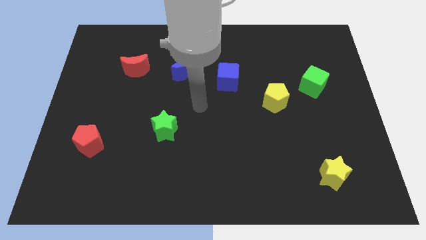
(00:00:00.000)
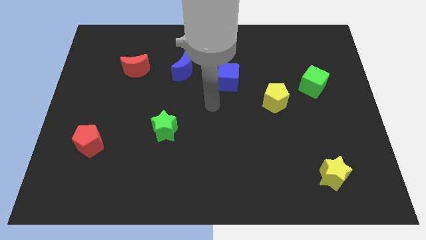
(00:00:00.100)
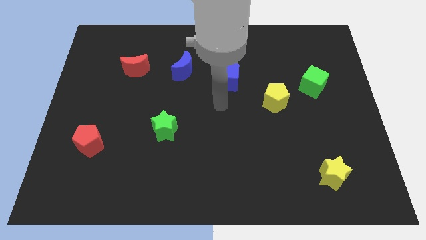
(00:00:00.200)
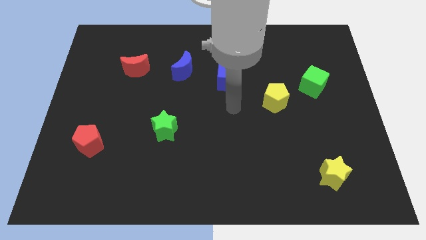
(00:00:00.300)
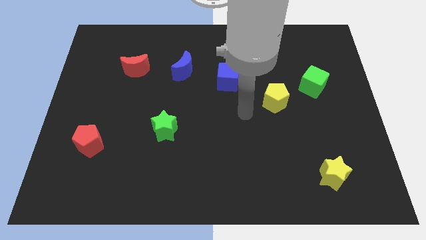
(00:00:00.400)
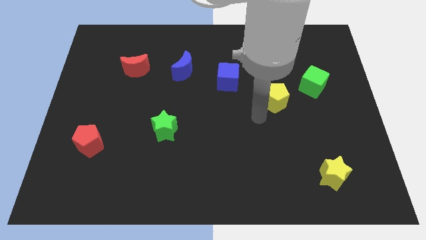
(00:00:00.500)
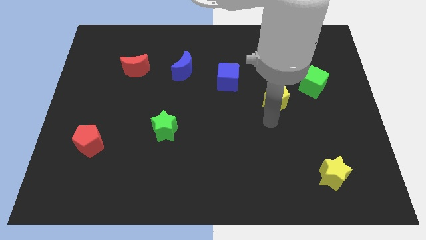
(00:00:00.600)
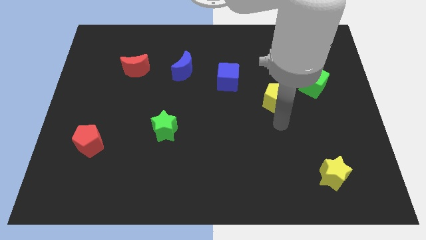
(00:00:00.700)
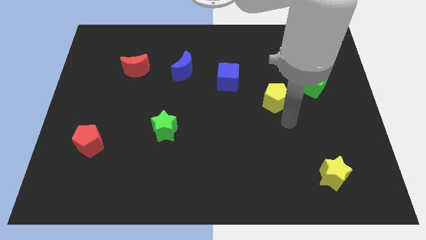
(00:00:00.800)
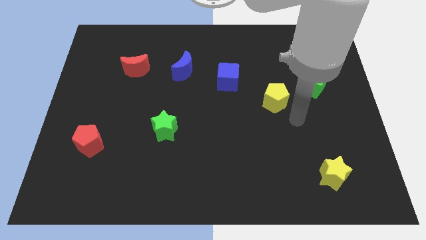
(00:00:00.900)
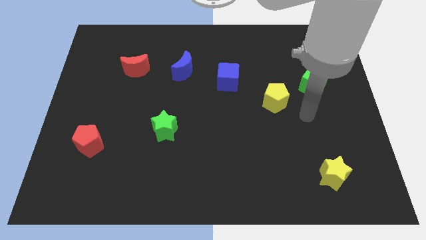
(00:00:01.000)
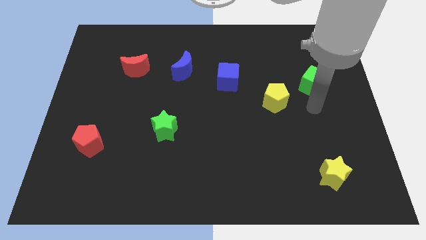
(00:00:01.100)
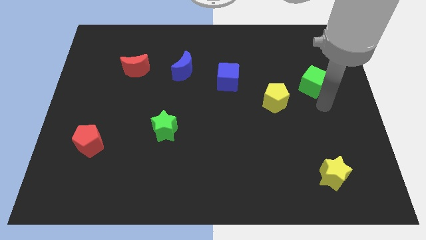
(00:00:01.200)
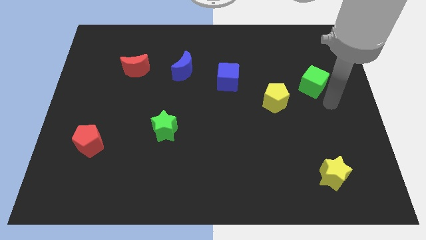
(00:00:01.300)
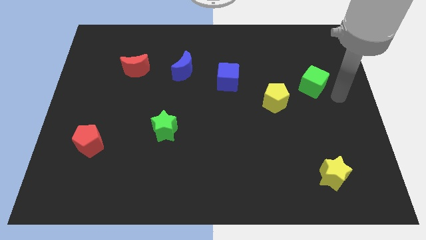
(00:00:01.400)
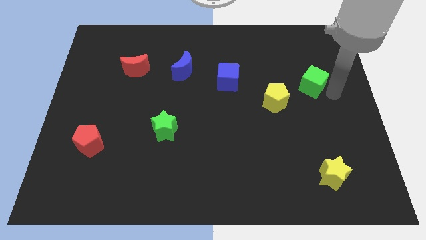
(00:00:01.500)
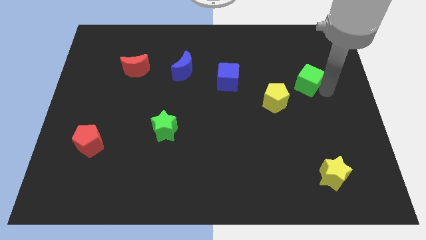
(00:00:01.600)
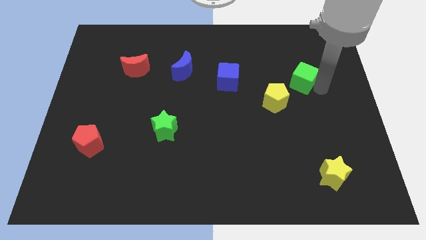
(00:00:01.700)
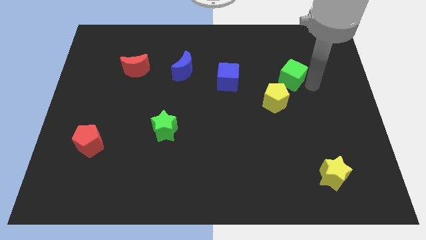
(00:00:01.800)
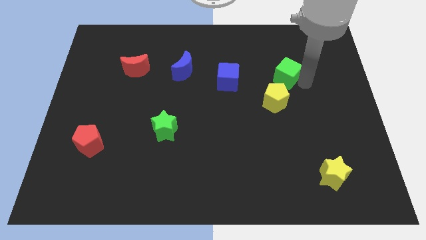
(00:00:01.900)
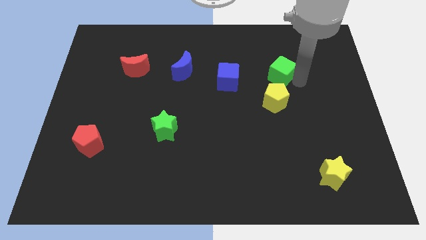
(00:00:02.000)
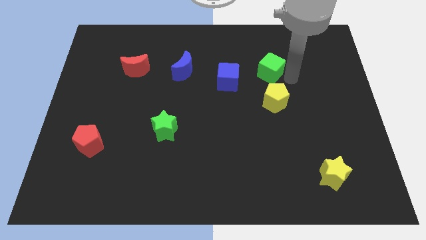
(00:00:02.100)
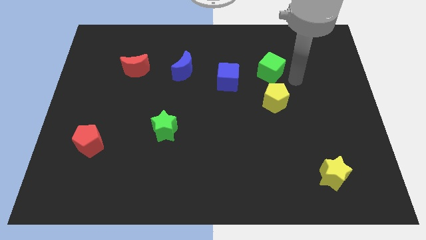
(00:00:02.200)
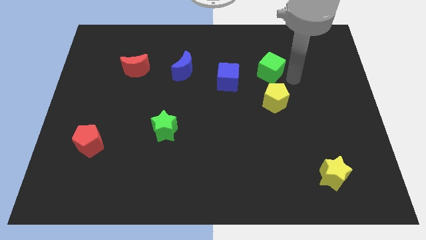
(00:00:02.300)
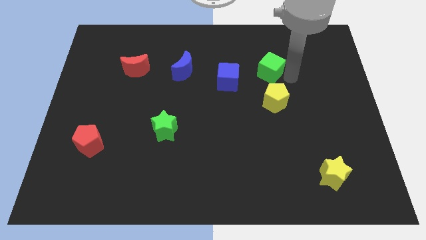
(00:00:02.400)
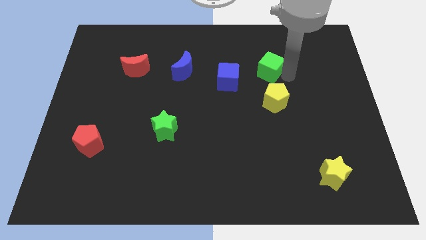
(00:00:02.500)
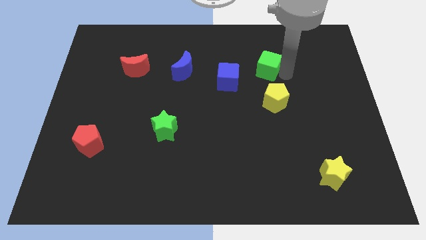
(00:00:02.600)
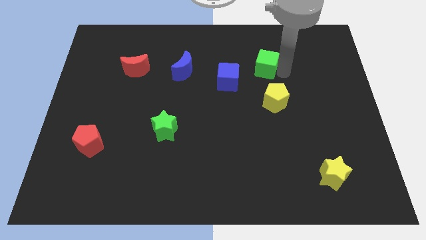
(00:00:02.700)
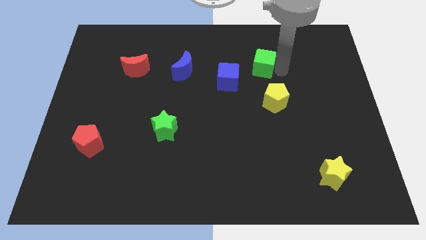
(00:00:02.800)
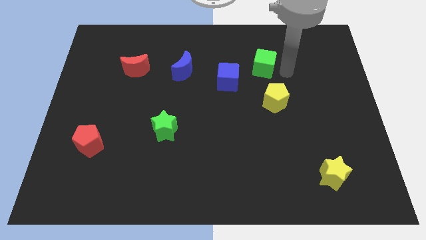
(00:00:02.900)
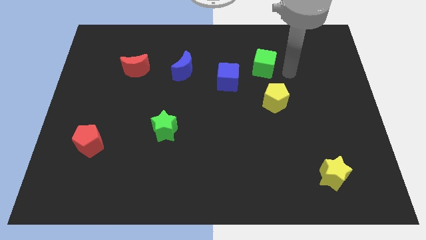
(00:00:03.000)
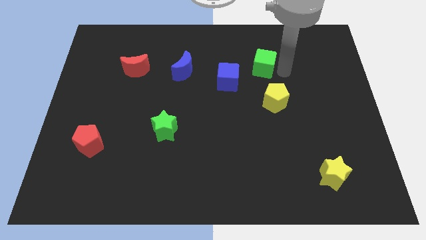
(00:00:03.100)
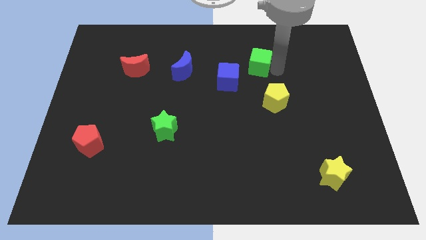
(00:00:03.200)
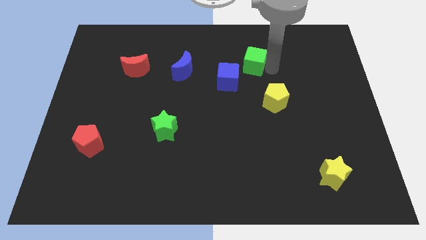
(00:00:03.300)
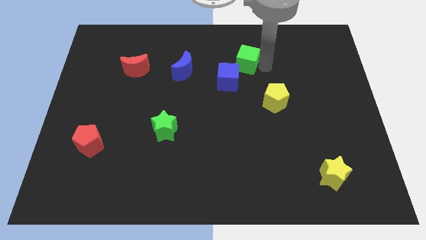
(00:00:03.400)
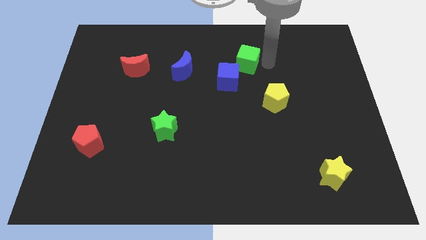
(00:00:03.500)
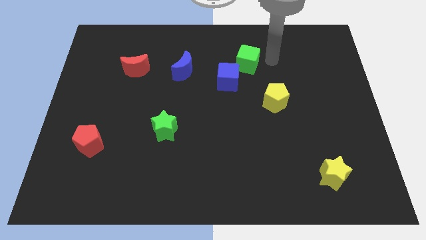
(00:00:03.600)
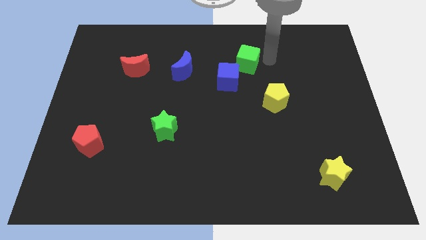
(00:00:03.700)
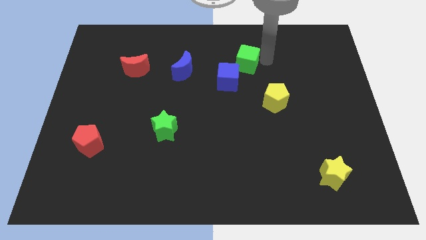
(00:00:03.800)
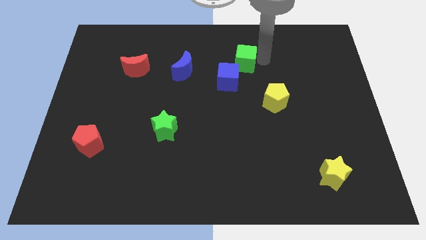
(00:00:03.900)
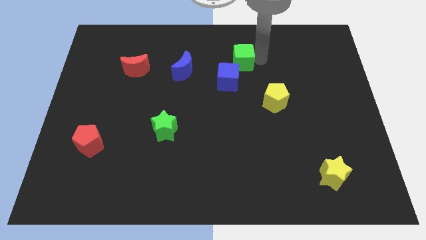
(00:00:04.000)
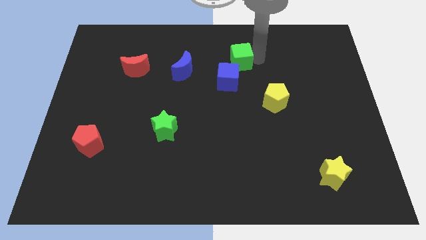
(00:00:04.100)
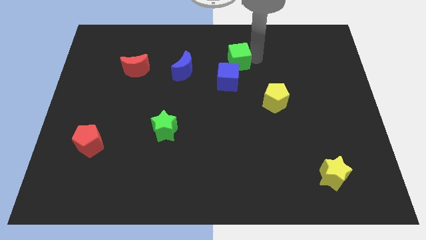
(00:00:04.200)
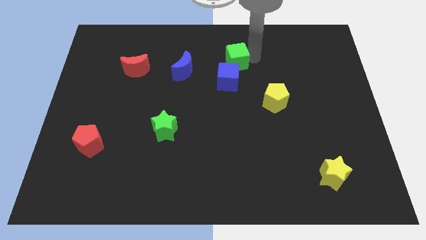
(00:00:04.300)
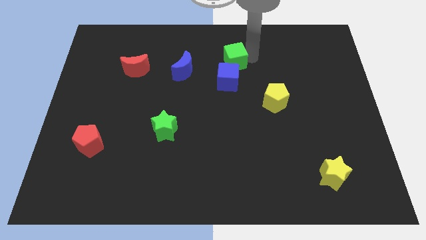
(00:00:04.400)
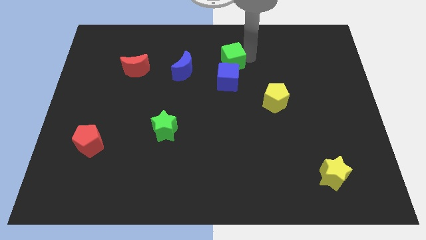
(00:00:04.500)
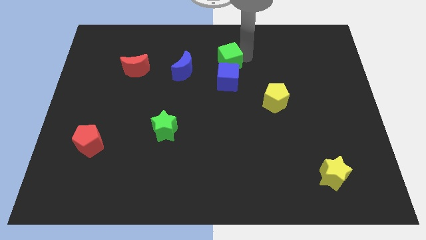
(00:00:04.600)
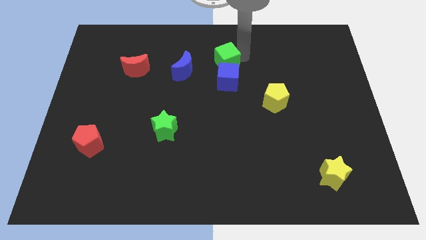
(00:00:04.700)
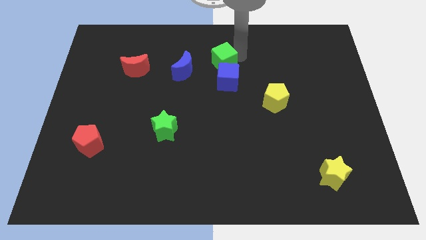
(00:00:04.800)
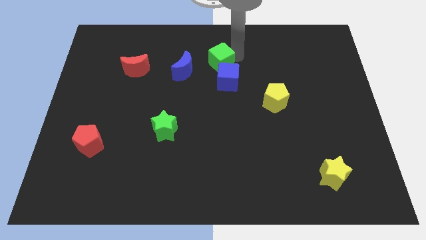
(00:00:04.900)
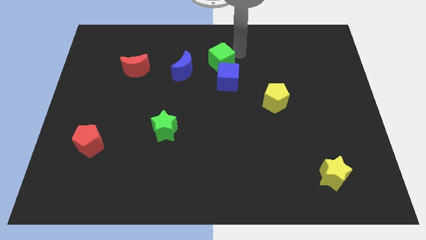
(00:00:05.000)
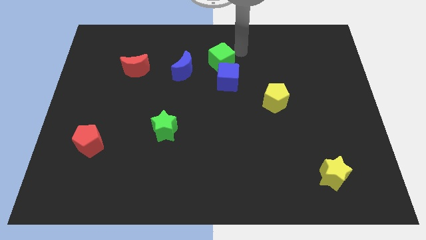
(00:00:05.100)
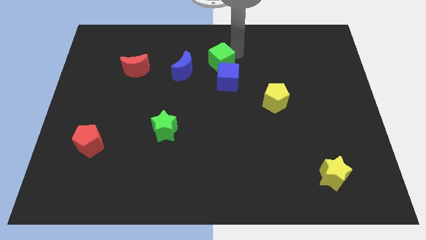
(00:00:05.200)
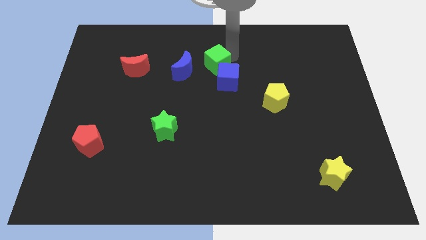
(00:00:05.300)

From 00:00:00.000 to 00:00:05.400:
move the green cube left

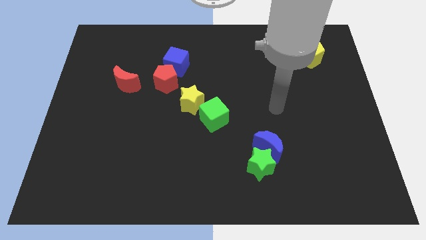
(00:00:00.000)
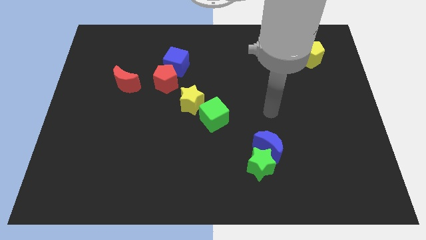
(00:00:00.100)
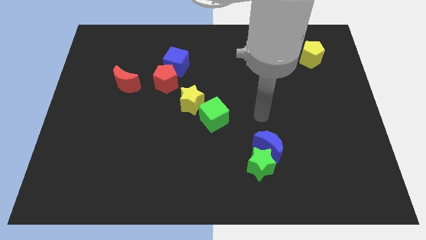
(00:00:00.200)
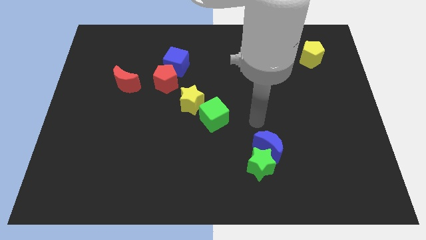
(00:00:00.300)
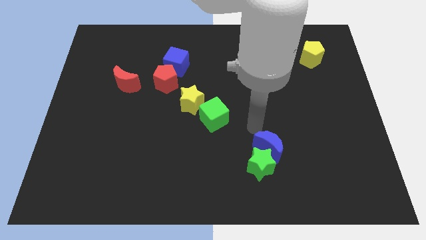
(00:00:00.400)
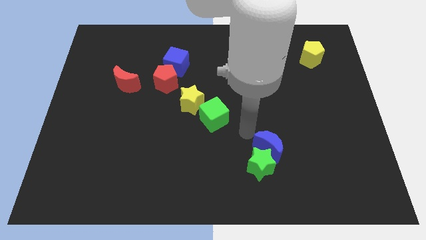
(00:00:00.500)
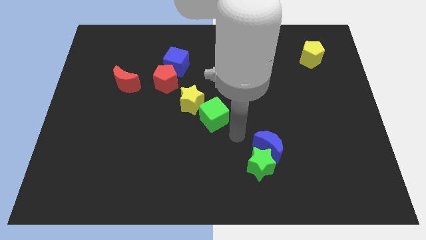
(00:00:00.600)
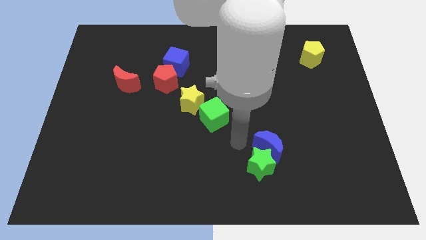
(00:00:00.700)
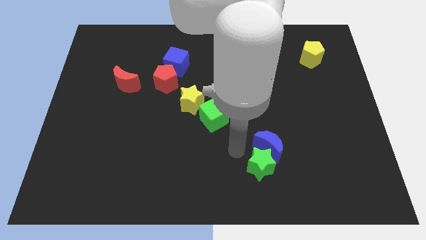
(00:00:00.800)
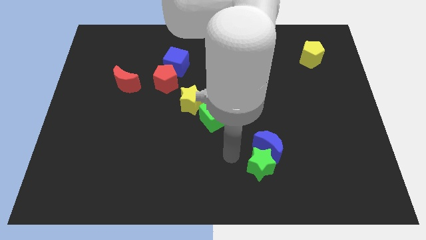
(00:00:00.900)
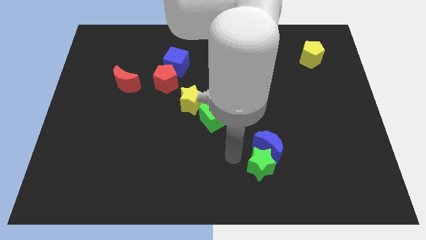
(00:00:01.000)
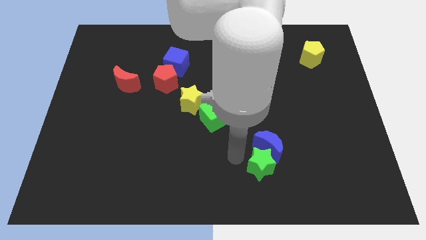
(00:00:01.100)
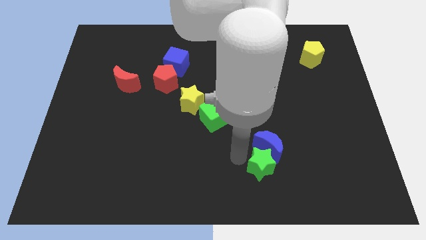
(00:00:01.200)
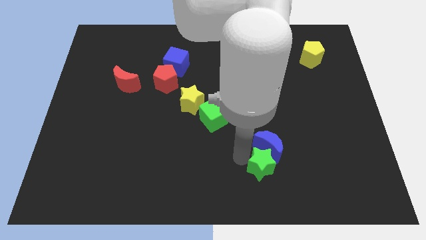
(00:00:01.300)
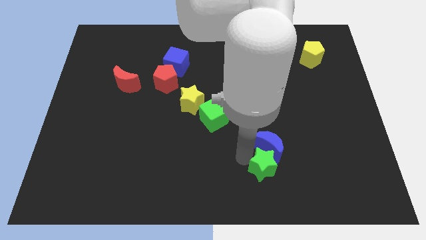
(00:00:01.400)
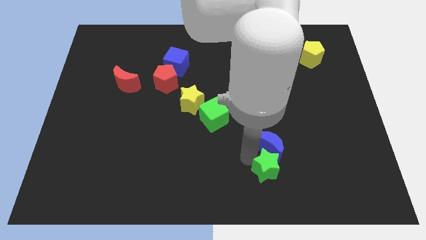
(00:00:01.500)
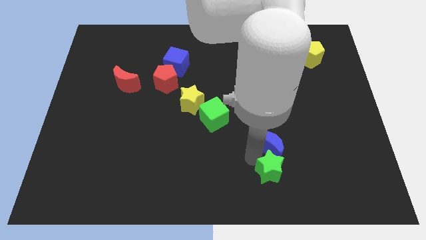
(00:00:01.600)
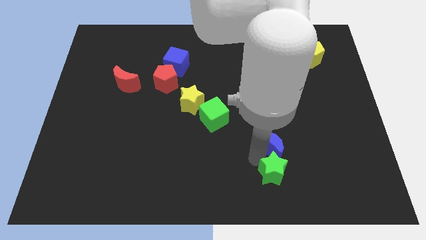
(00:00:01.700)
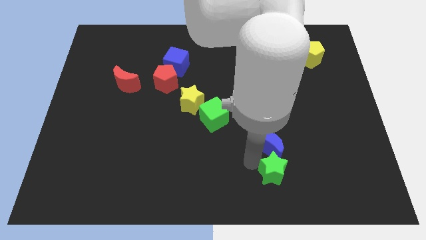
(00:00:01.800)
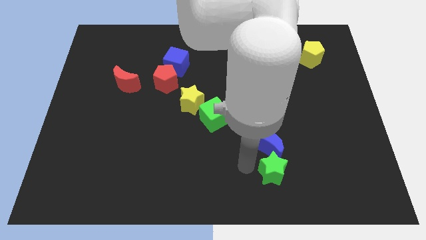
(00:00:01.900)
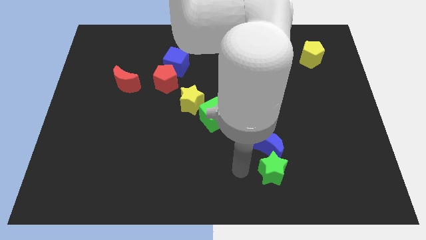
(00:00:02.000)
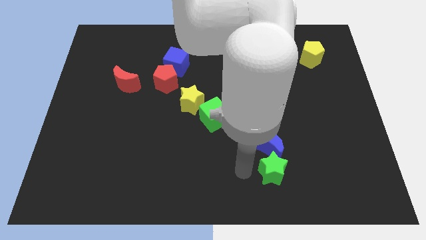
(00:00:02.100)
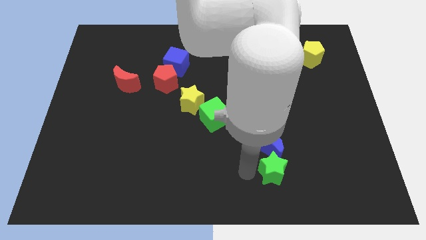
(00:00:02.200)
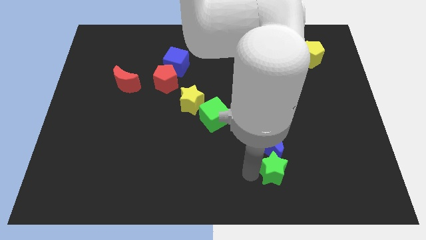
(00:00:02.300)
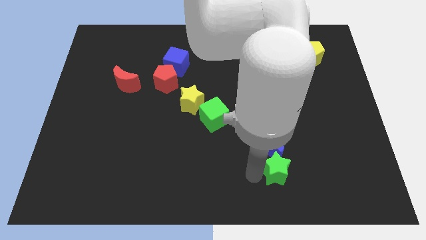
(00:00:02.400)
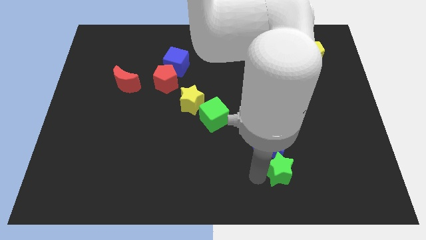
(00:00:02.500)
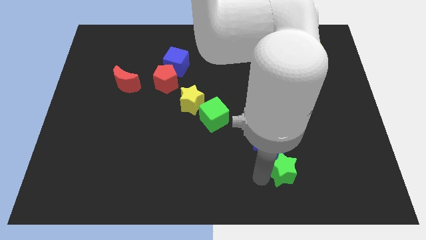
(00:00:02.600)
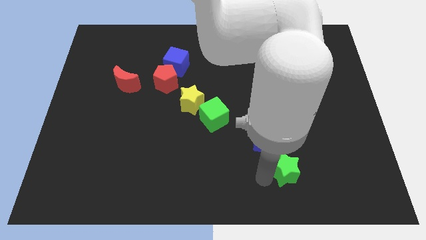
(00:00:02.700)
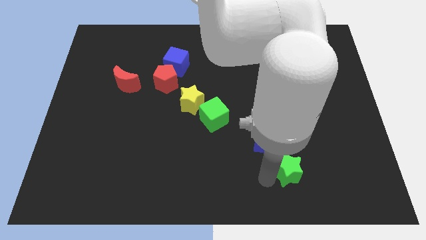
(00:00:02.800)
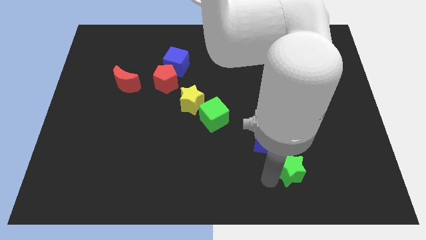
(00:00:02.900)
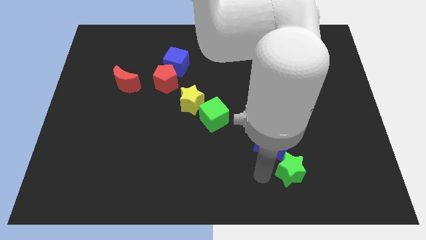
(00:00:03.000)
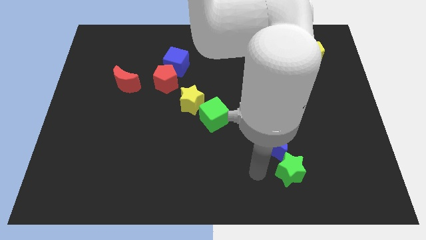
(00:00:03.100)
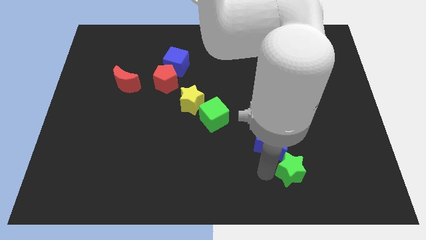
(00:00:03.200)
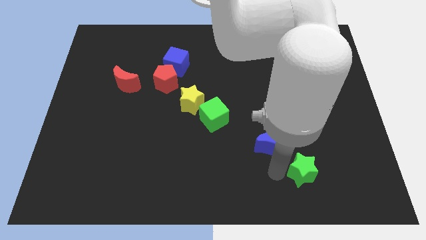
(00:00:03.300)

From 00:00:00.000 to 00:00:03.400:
slightly move the green star to the right
